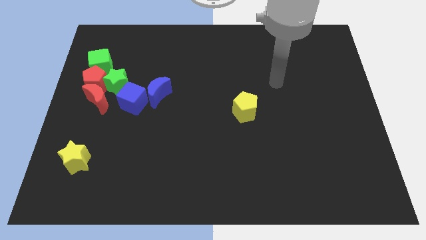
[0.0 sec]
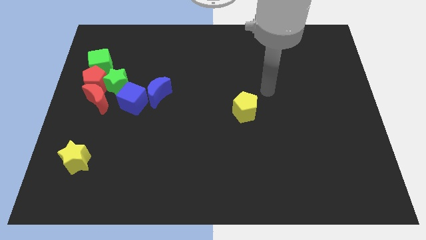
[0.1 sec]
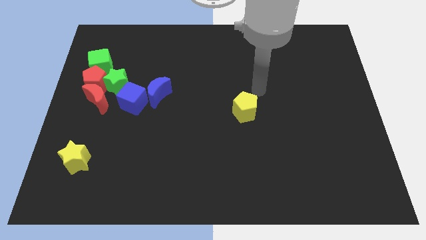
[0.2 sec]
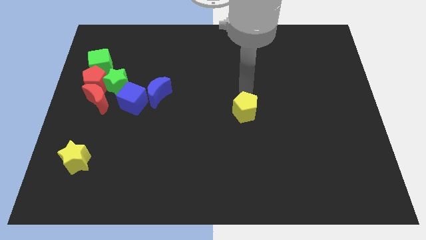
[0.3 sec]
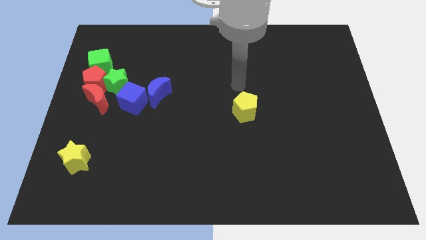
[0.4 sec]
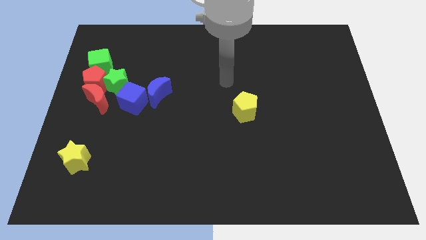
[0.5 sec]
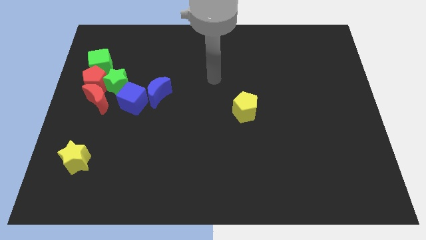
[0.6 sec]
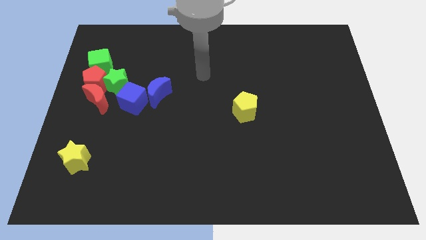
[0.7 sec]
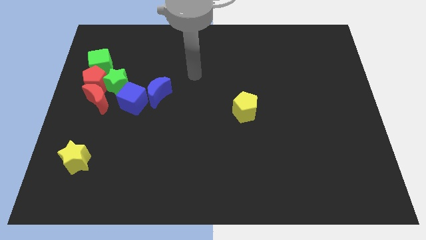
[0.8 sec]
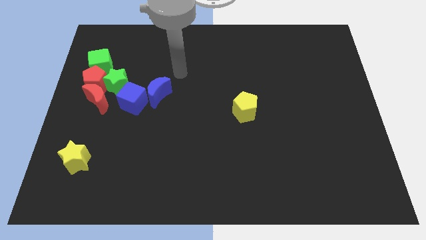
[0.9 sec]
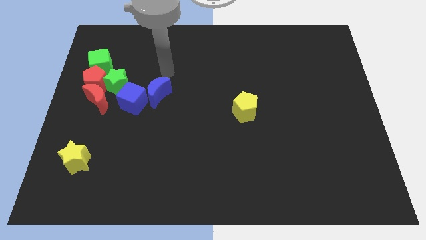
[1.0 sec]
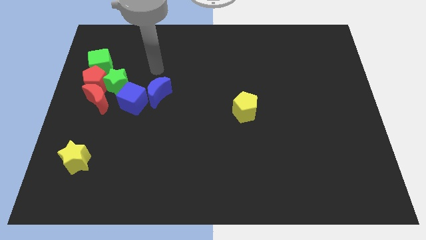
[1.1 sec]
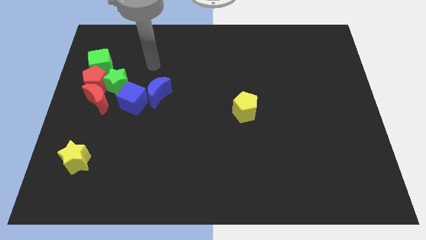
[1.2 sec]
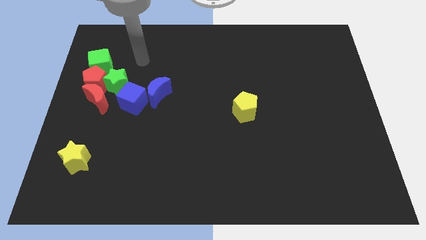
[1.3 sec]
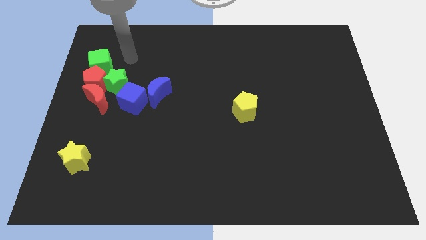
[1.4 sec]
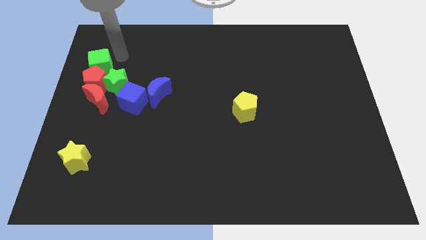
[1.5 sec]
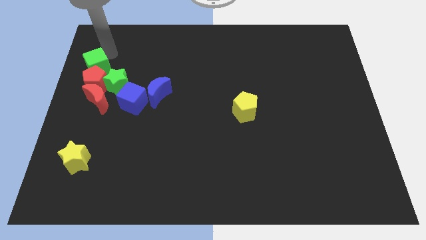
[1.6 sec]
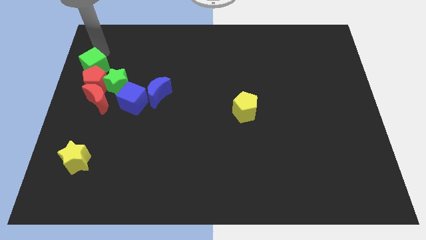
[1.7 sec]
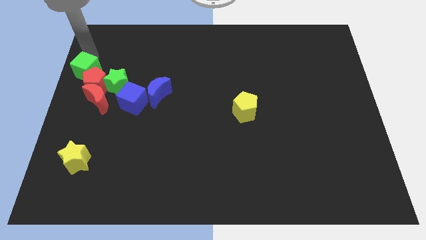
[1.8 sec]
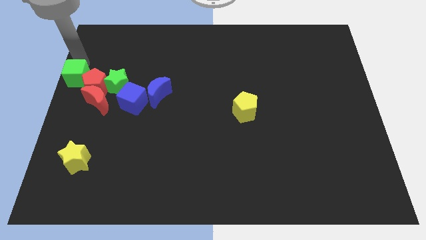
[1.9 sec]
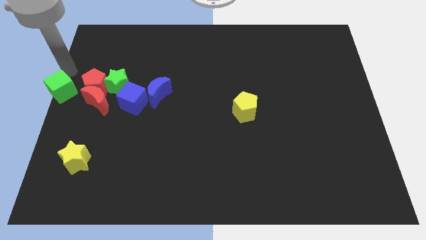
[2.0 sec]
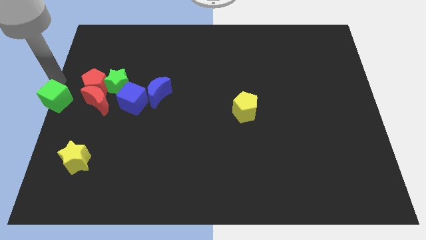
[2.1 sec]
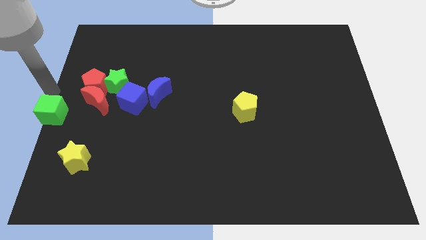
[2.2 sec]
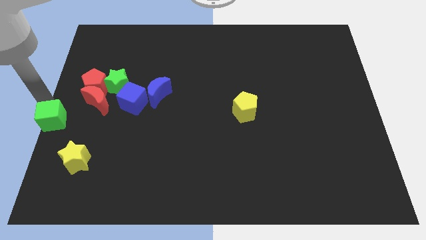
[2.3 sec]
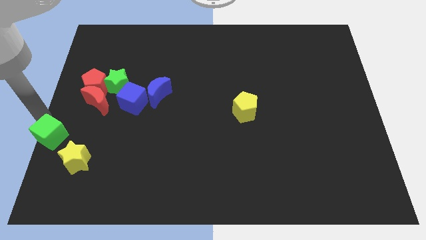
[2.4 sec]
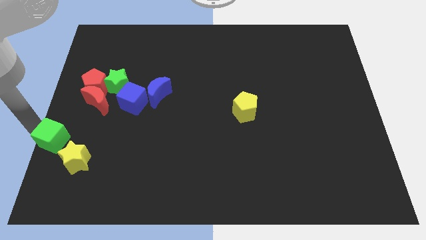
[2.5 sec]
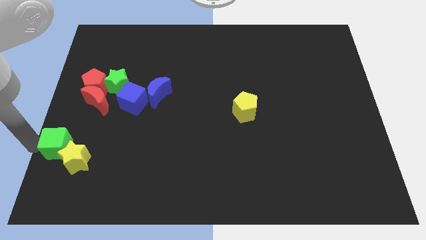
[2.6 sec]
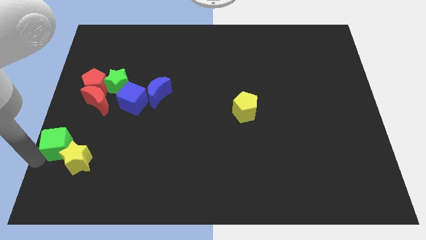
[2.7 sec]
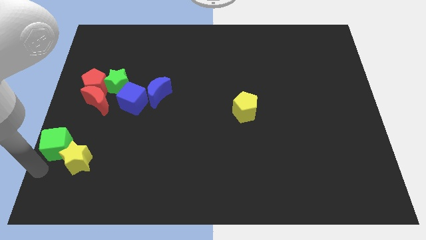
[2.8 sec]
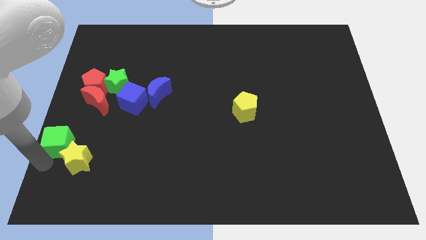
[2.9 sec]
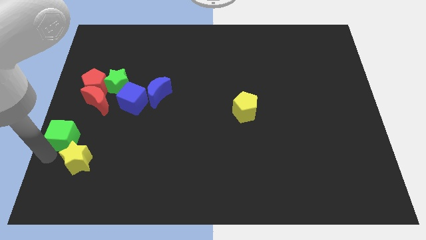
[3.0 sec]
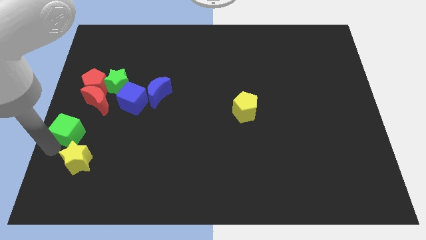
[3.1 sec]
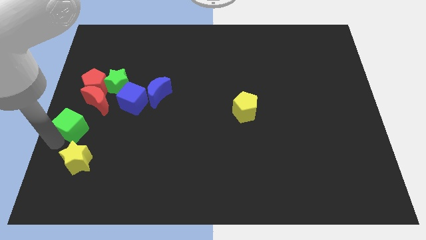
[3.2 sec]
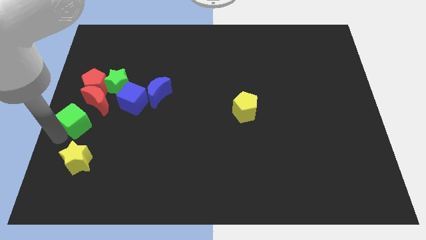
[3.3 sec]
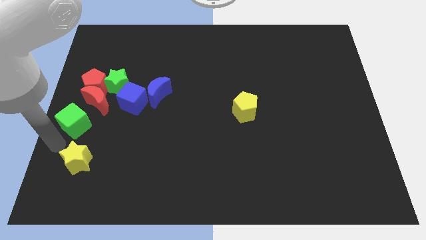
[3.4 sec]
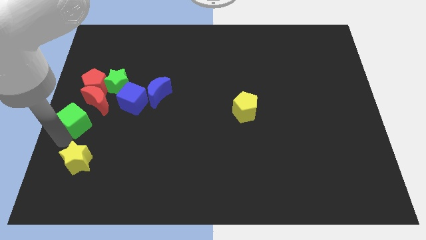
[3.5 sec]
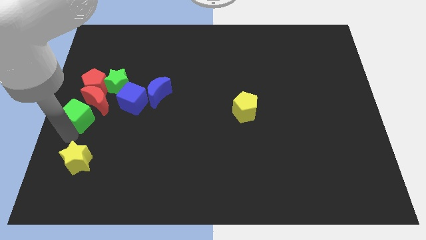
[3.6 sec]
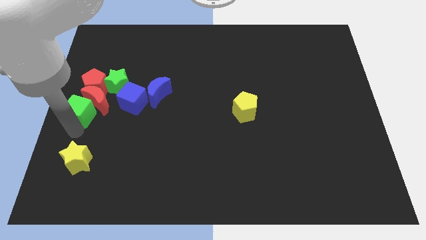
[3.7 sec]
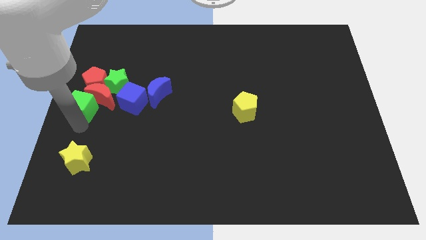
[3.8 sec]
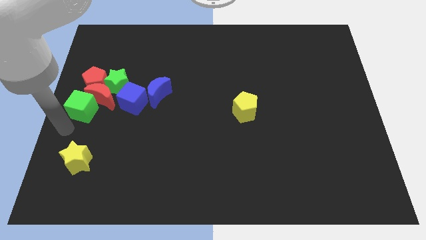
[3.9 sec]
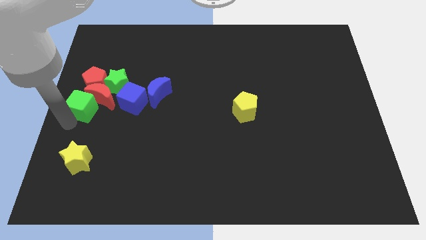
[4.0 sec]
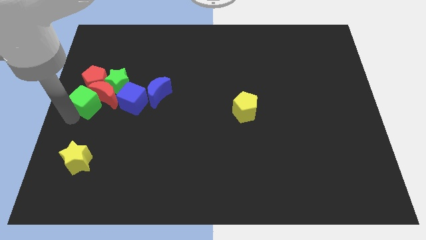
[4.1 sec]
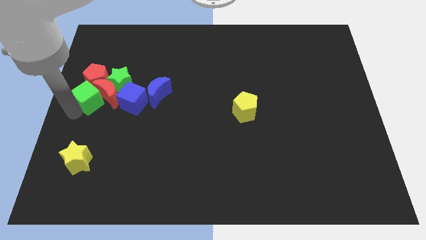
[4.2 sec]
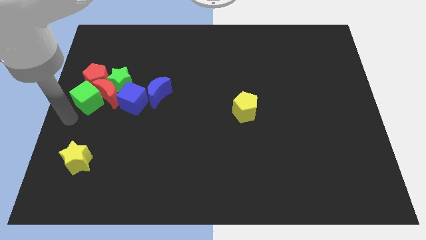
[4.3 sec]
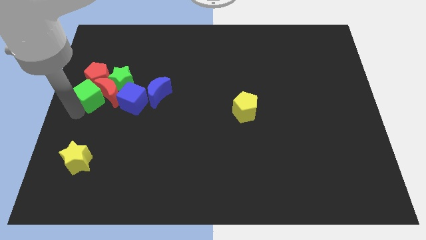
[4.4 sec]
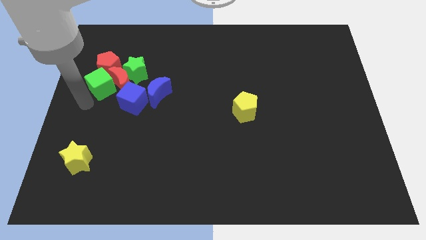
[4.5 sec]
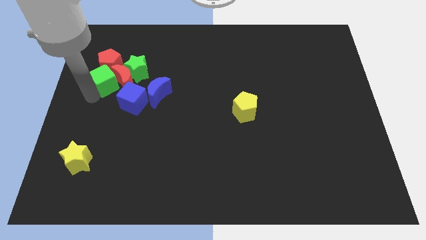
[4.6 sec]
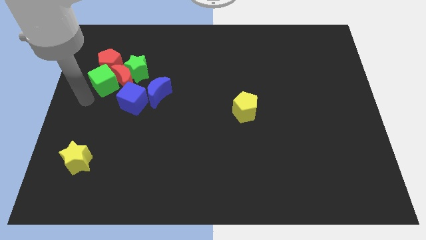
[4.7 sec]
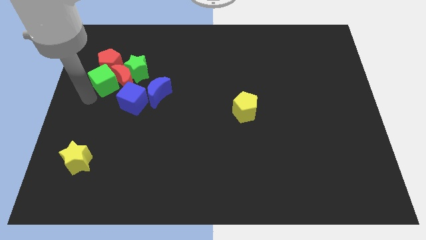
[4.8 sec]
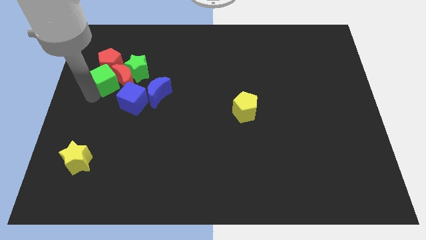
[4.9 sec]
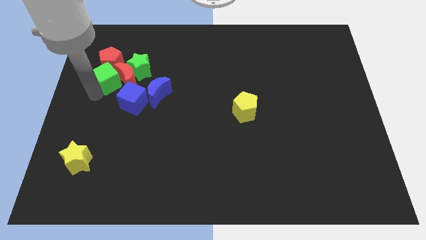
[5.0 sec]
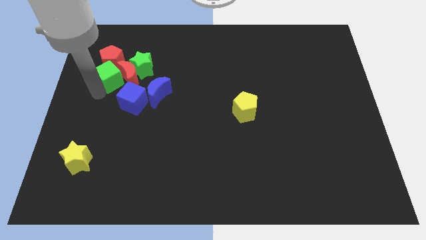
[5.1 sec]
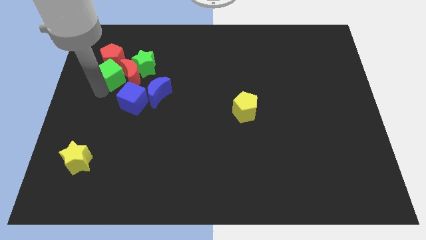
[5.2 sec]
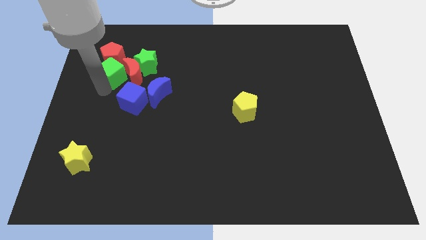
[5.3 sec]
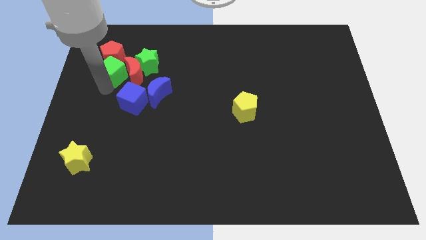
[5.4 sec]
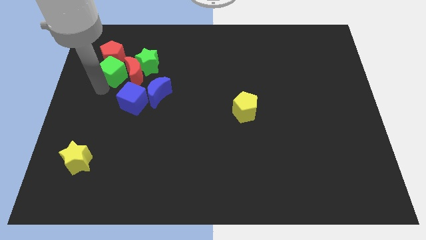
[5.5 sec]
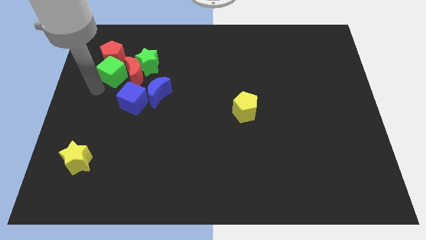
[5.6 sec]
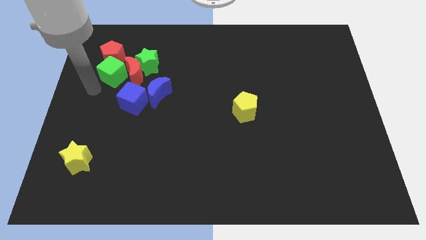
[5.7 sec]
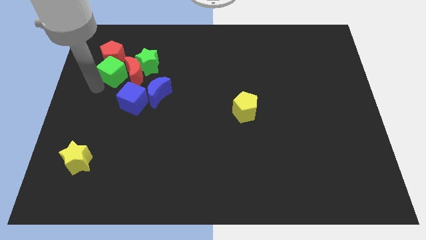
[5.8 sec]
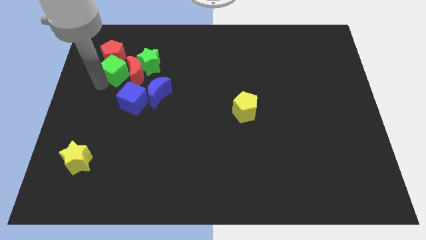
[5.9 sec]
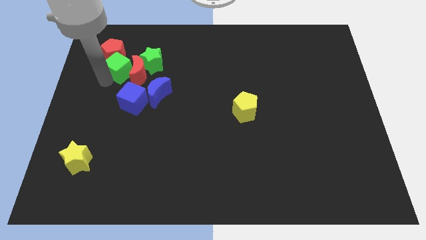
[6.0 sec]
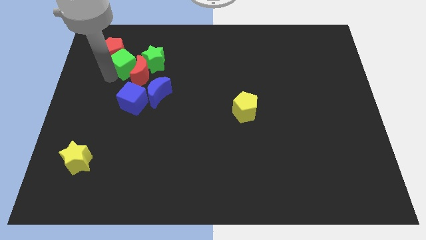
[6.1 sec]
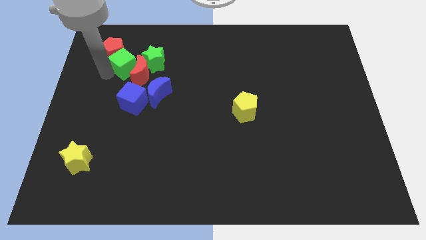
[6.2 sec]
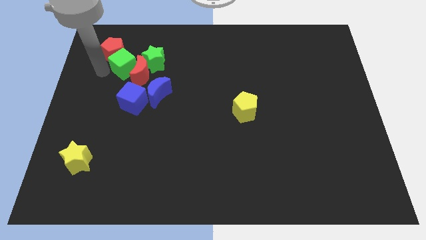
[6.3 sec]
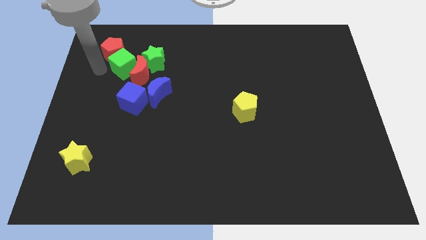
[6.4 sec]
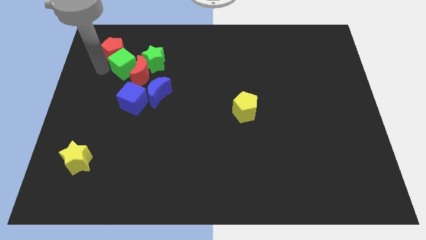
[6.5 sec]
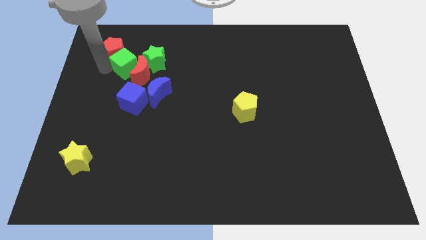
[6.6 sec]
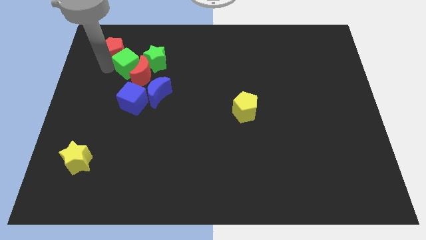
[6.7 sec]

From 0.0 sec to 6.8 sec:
slightly move the green cube to the right

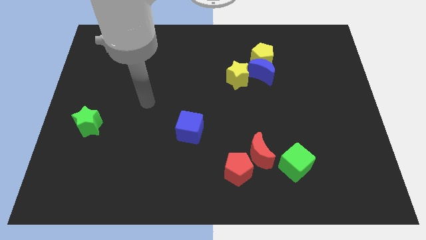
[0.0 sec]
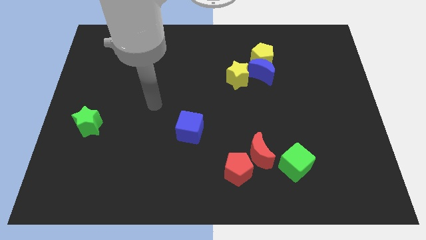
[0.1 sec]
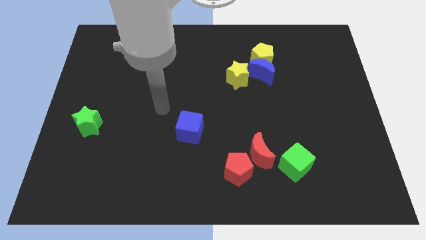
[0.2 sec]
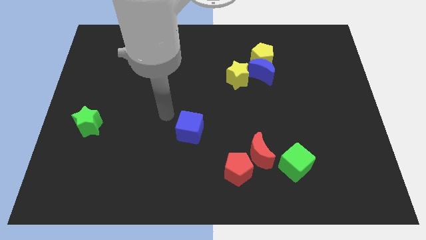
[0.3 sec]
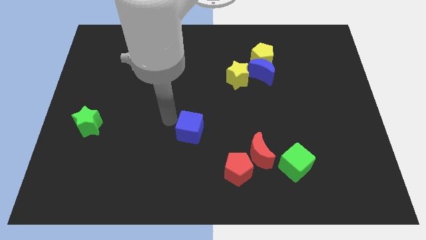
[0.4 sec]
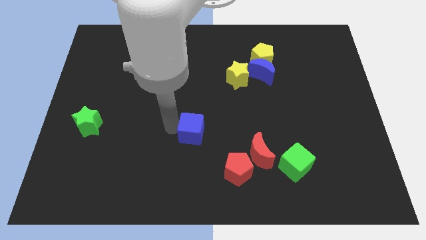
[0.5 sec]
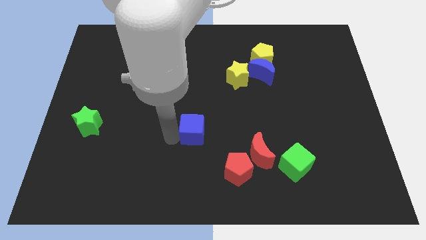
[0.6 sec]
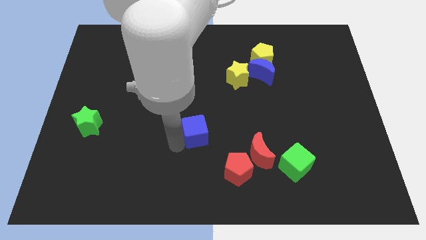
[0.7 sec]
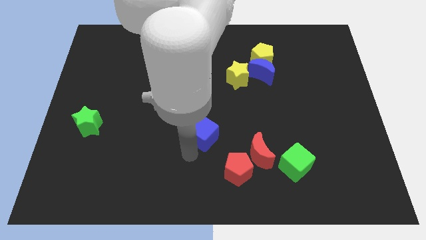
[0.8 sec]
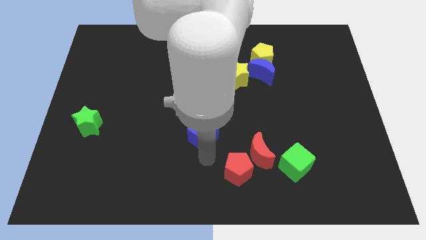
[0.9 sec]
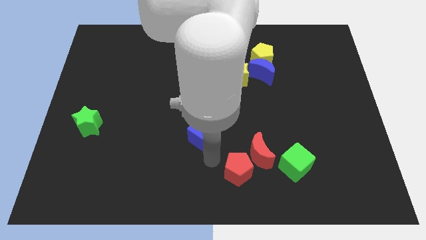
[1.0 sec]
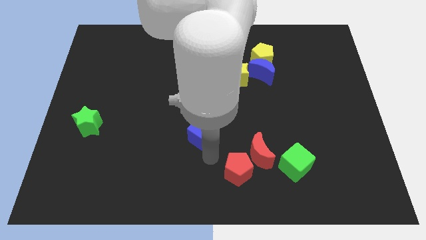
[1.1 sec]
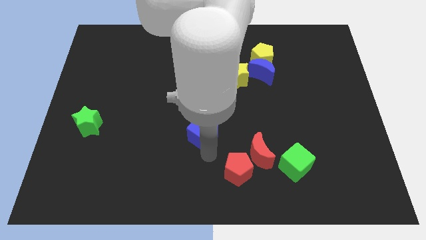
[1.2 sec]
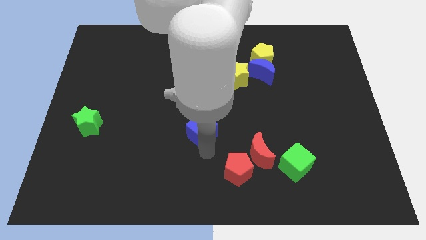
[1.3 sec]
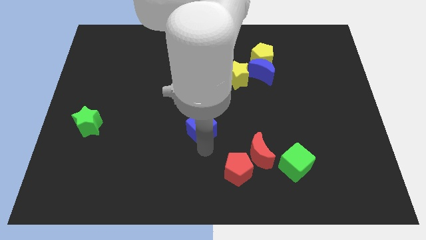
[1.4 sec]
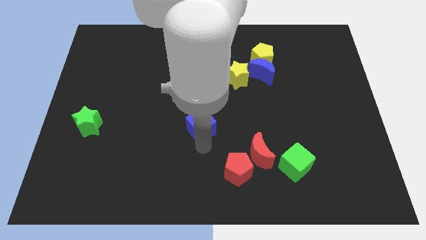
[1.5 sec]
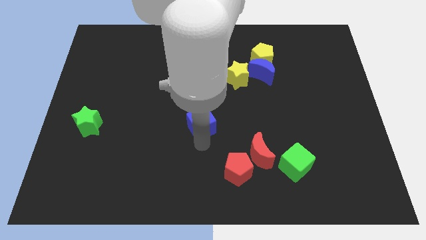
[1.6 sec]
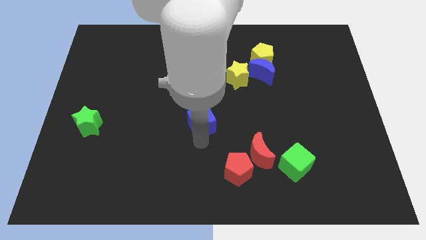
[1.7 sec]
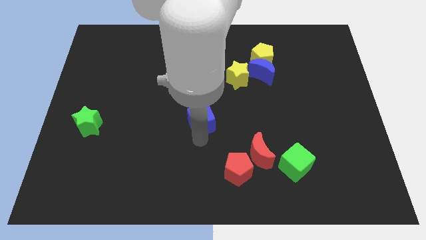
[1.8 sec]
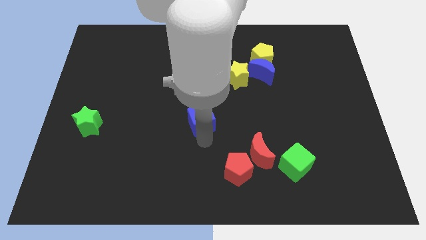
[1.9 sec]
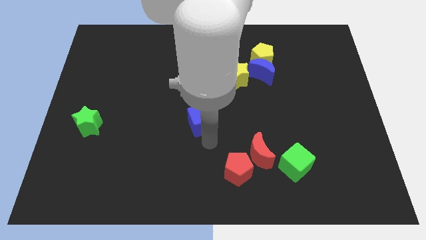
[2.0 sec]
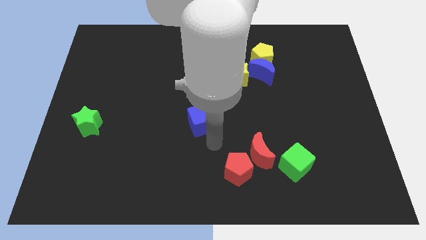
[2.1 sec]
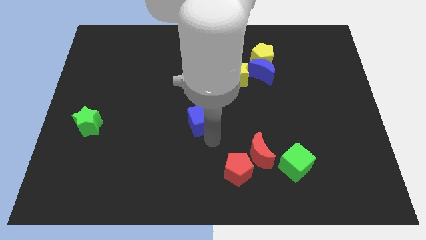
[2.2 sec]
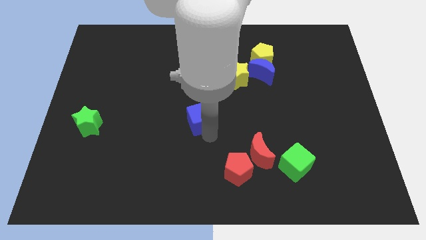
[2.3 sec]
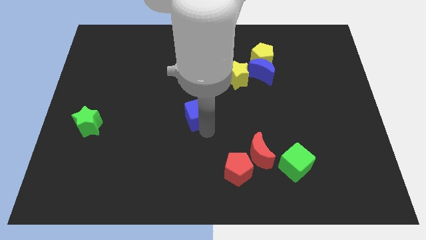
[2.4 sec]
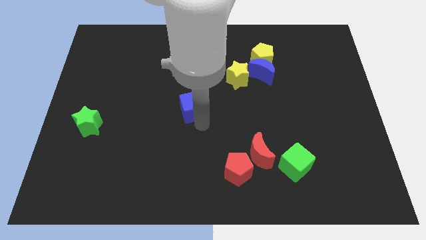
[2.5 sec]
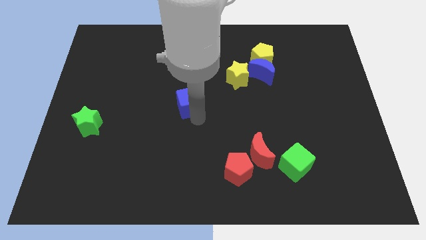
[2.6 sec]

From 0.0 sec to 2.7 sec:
slightly slide the blue cube upwards
